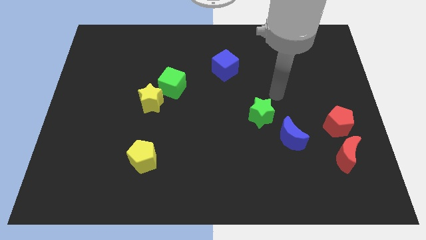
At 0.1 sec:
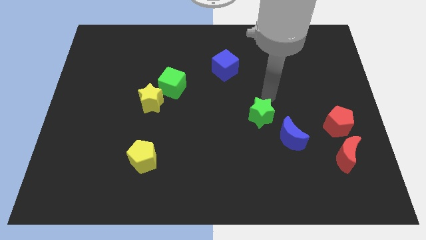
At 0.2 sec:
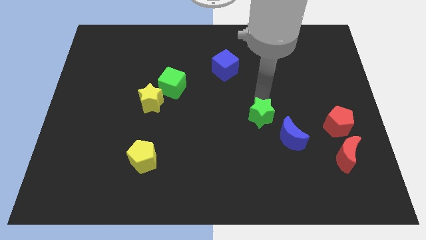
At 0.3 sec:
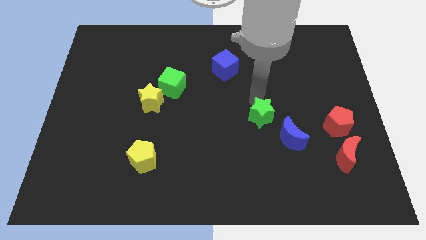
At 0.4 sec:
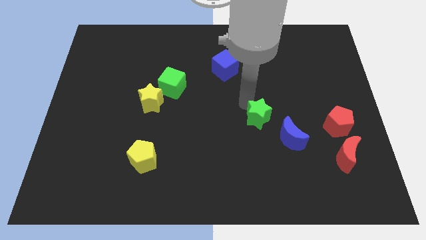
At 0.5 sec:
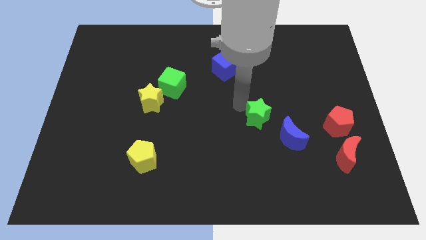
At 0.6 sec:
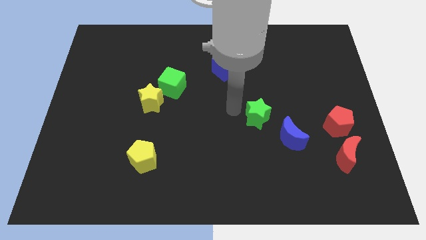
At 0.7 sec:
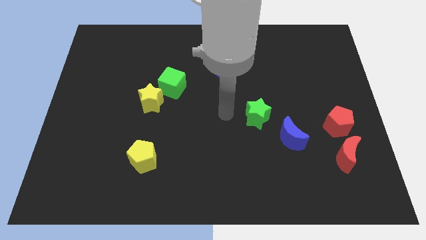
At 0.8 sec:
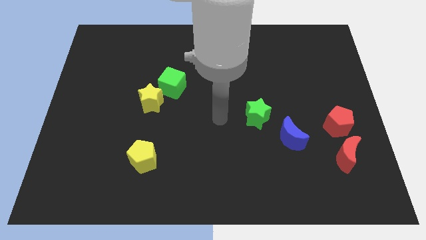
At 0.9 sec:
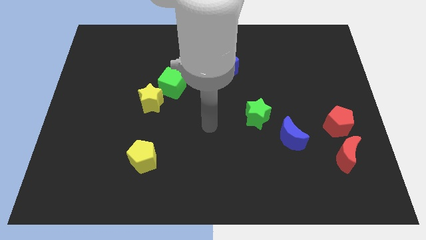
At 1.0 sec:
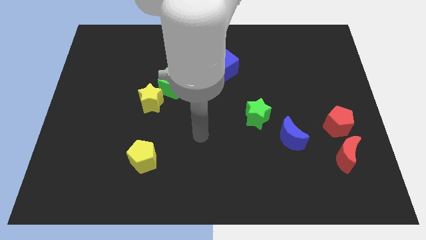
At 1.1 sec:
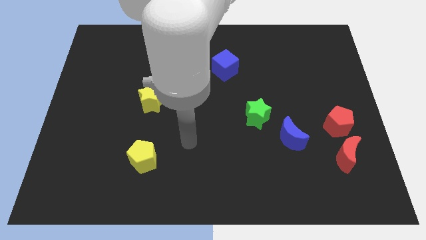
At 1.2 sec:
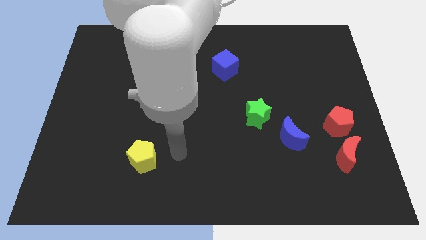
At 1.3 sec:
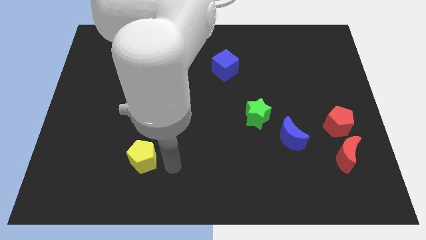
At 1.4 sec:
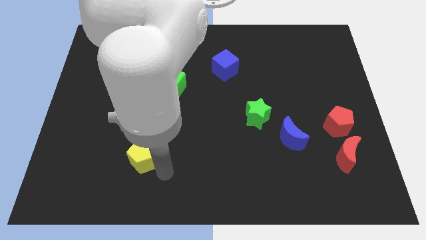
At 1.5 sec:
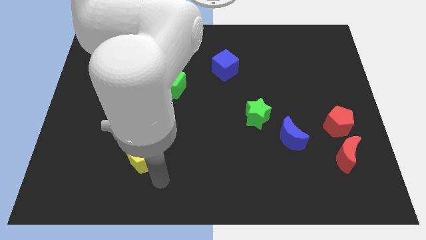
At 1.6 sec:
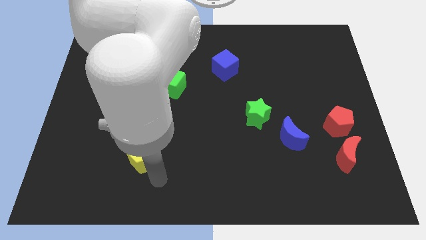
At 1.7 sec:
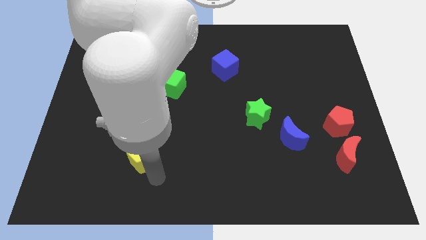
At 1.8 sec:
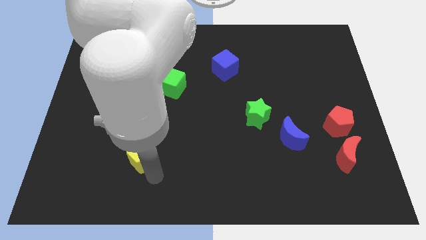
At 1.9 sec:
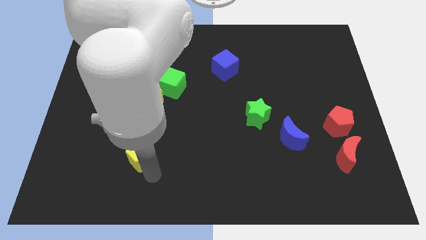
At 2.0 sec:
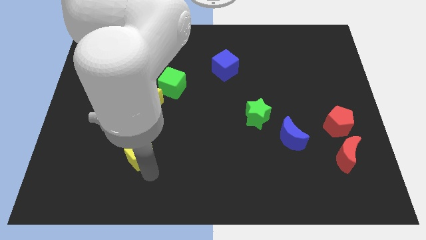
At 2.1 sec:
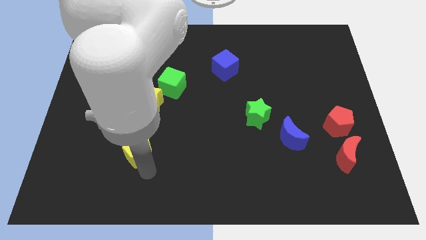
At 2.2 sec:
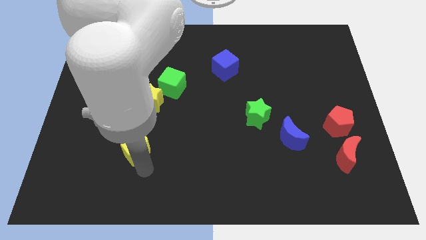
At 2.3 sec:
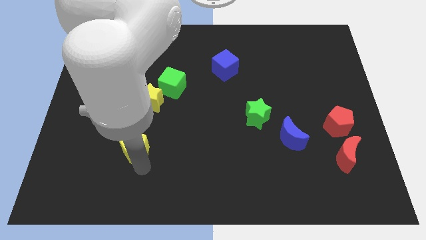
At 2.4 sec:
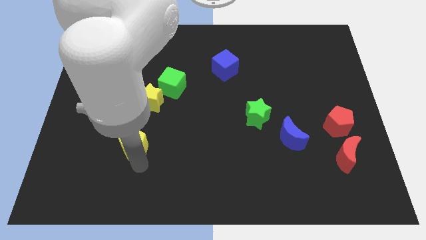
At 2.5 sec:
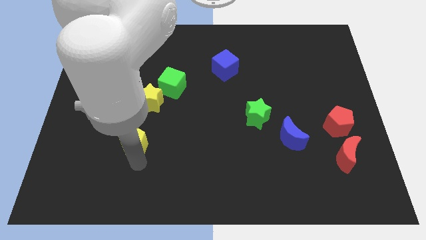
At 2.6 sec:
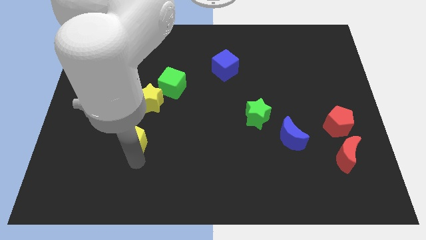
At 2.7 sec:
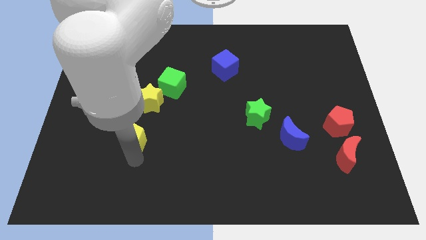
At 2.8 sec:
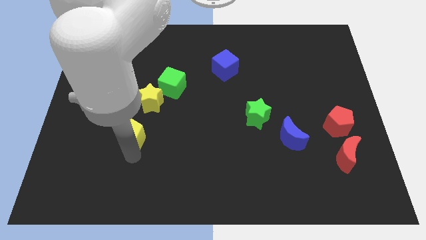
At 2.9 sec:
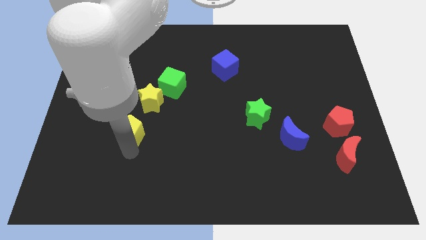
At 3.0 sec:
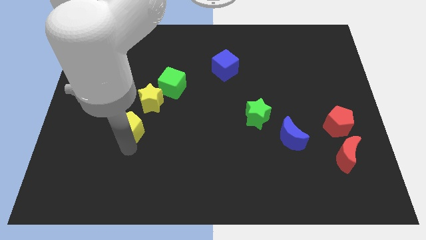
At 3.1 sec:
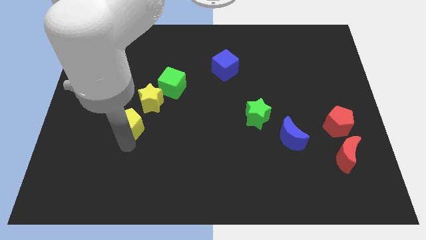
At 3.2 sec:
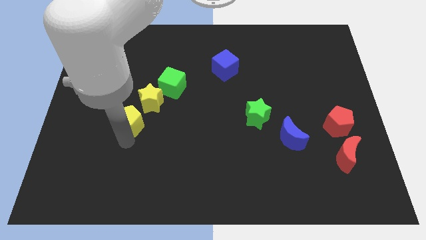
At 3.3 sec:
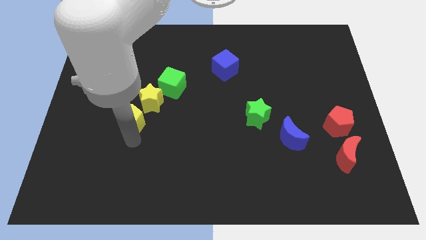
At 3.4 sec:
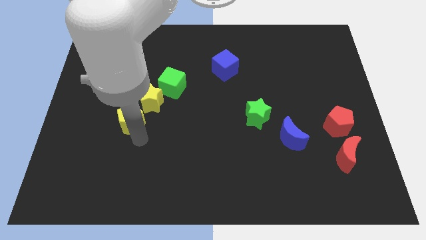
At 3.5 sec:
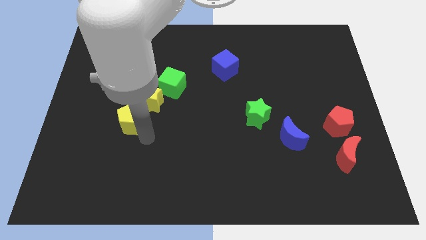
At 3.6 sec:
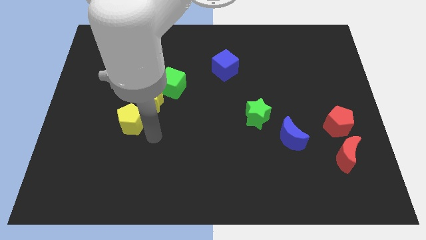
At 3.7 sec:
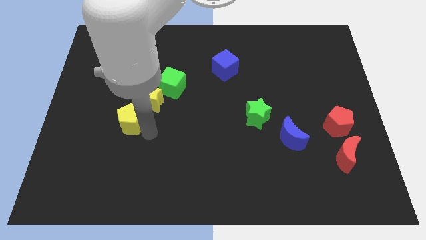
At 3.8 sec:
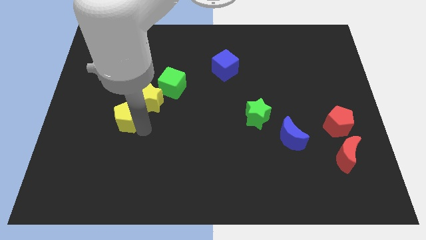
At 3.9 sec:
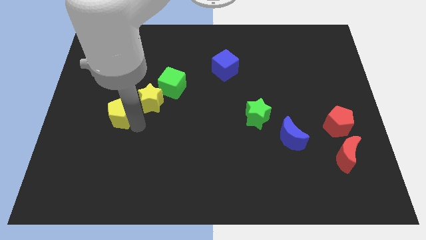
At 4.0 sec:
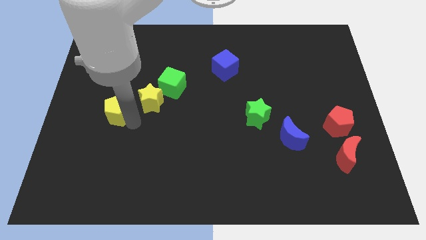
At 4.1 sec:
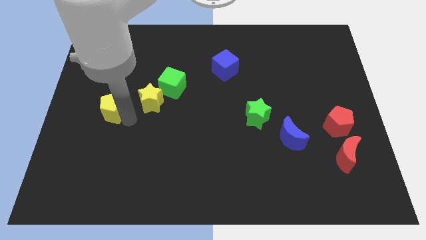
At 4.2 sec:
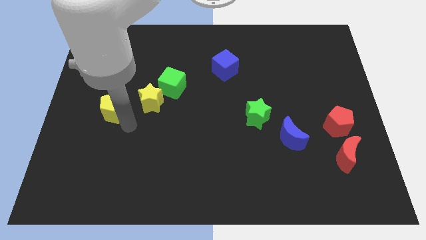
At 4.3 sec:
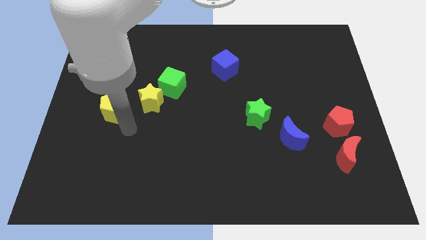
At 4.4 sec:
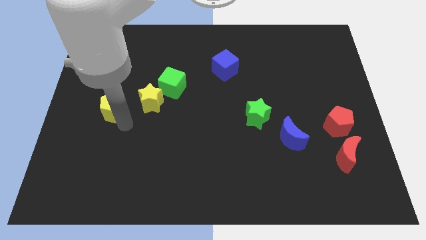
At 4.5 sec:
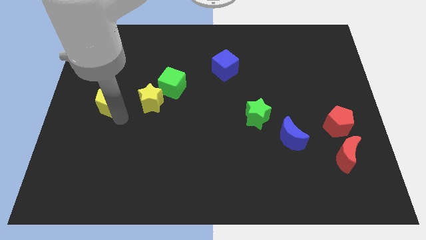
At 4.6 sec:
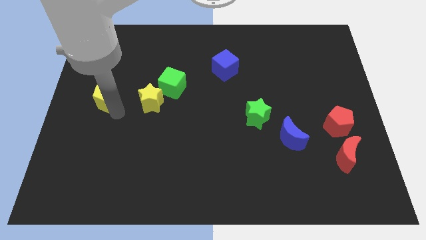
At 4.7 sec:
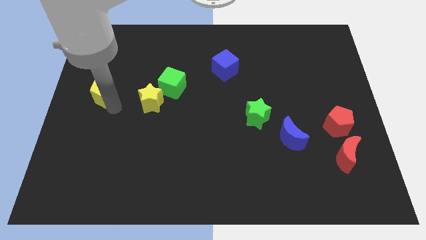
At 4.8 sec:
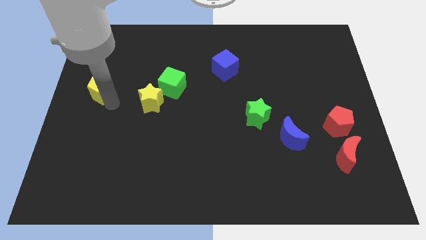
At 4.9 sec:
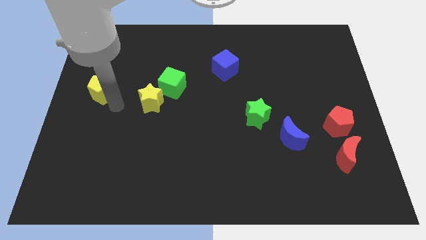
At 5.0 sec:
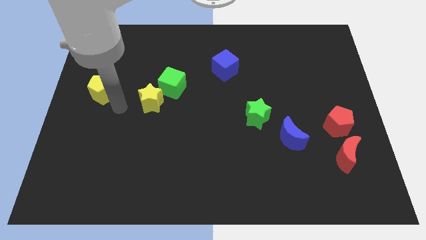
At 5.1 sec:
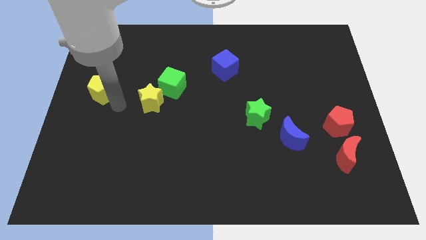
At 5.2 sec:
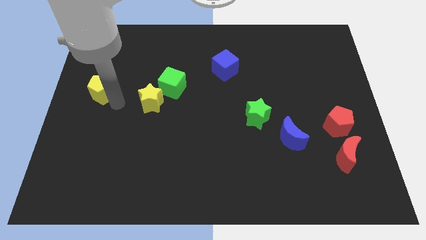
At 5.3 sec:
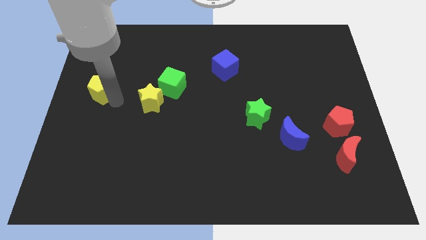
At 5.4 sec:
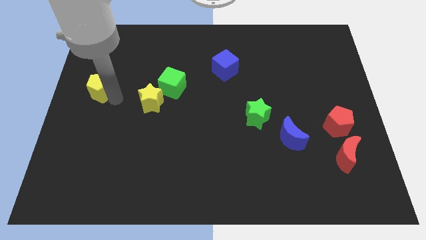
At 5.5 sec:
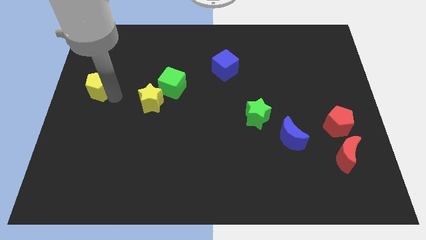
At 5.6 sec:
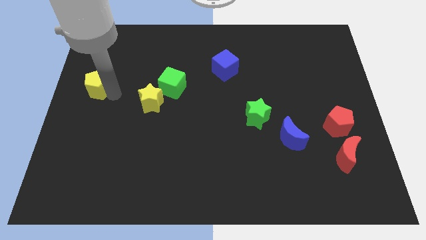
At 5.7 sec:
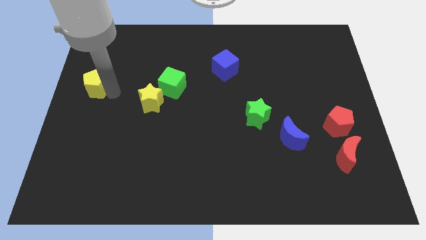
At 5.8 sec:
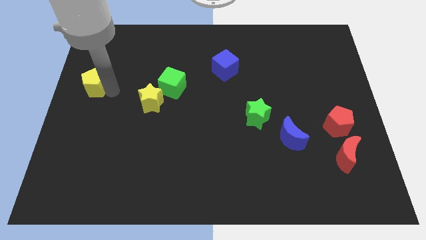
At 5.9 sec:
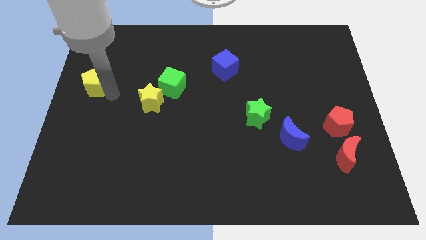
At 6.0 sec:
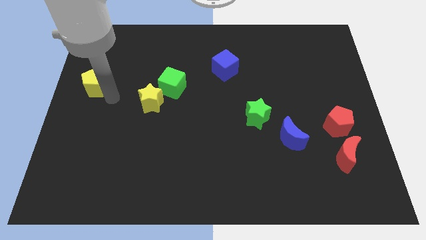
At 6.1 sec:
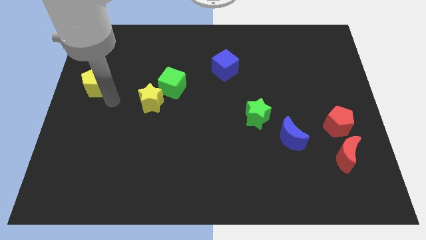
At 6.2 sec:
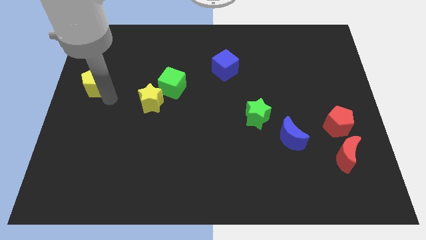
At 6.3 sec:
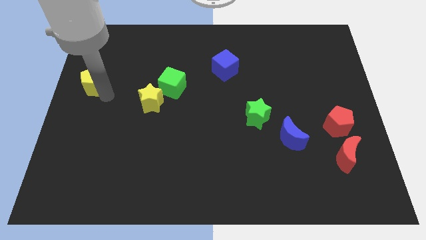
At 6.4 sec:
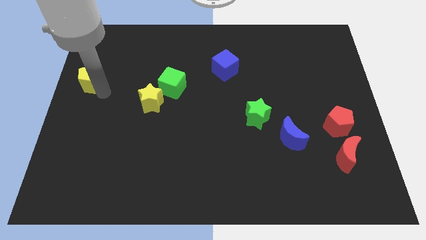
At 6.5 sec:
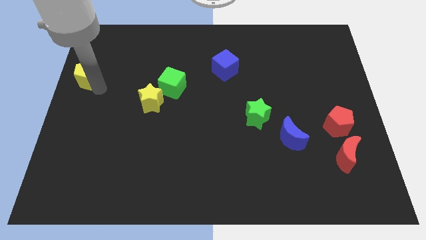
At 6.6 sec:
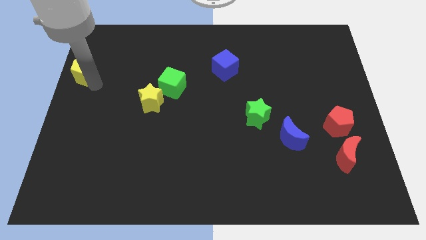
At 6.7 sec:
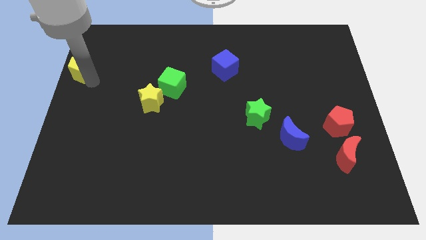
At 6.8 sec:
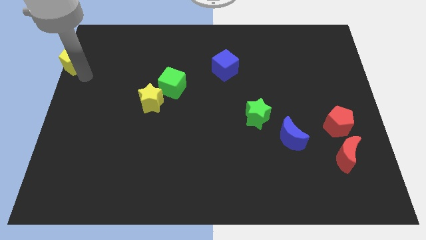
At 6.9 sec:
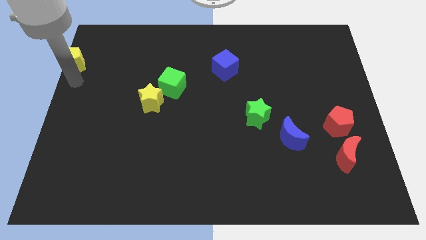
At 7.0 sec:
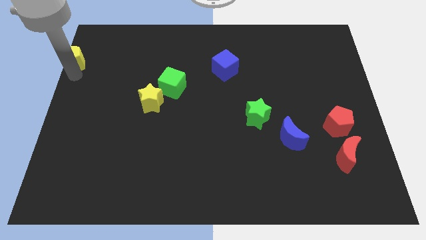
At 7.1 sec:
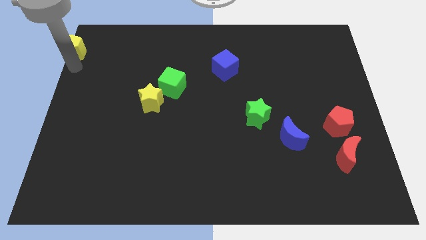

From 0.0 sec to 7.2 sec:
slide the yellow pentagon to the top left corner
